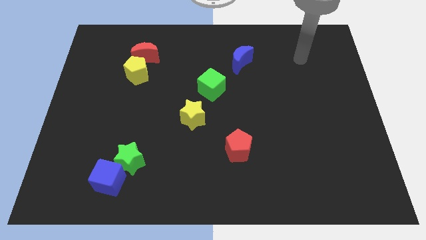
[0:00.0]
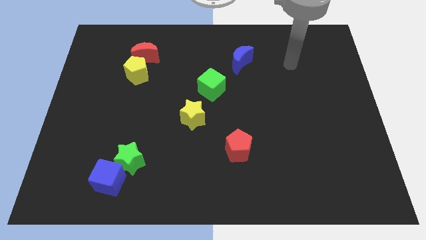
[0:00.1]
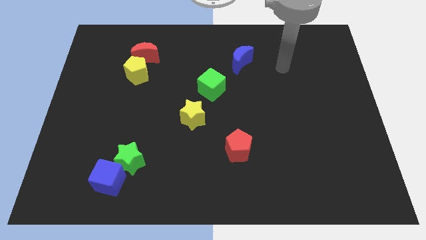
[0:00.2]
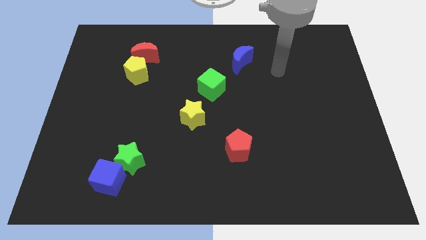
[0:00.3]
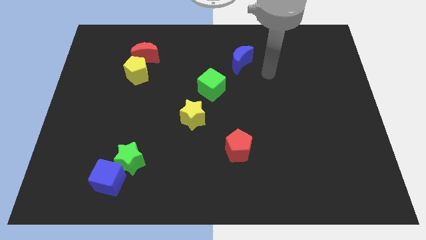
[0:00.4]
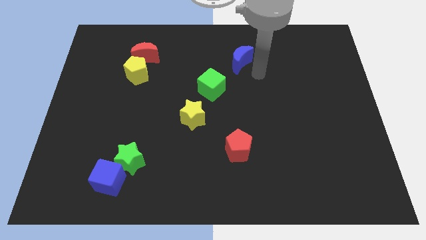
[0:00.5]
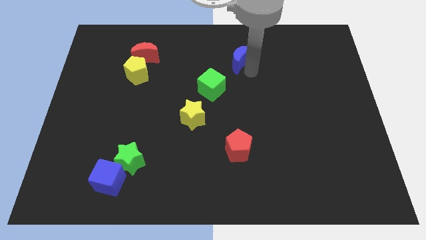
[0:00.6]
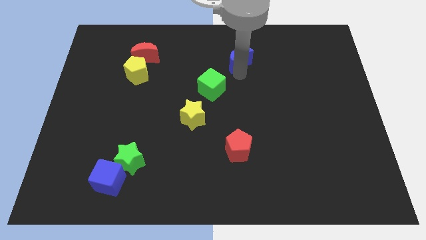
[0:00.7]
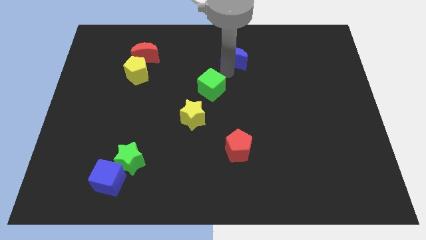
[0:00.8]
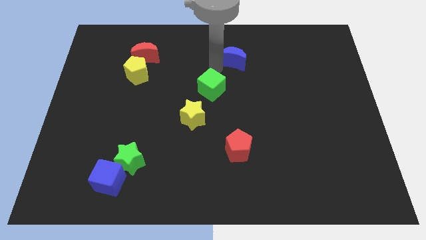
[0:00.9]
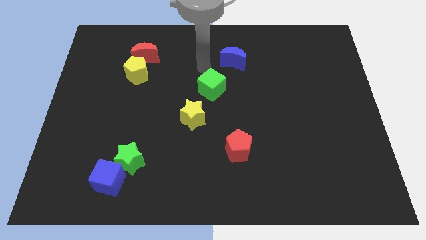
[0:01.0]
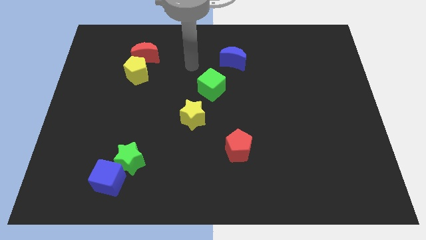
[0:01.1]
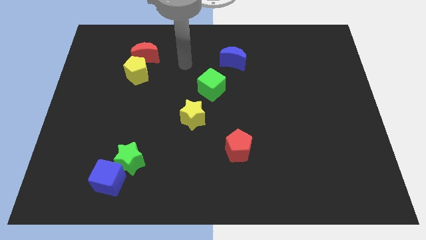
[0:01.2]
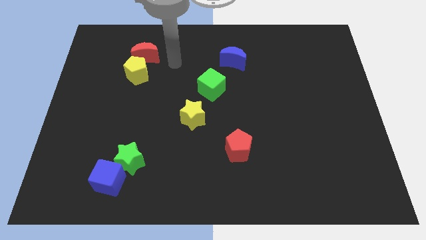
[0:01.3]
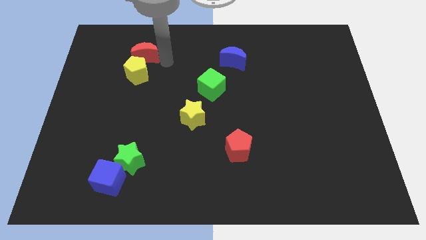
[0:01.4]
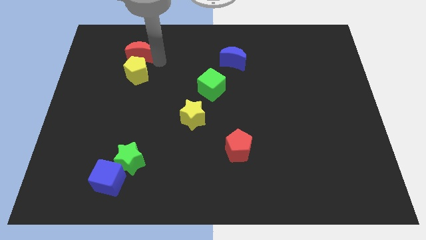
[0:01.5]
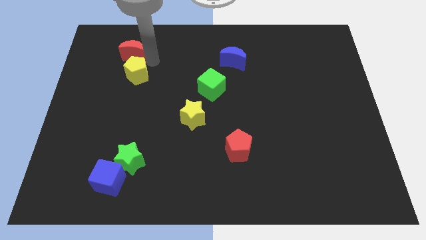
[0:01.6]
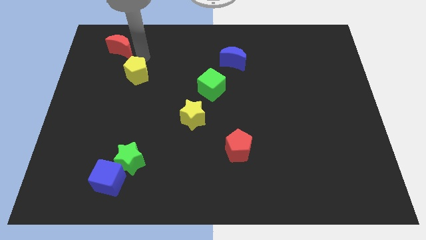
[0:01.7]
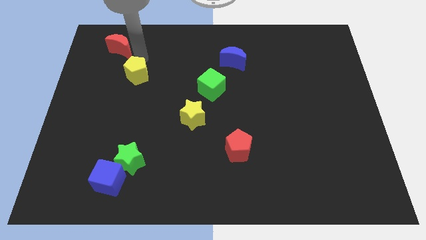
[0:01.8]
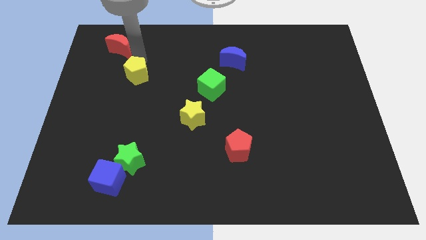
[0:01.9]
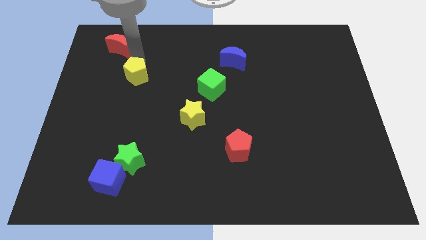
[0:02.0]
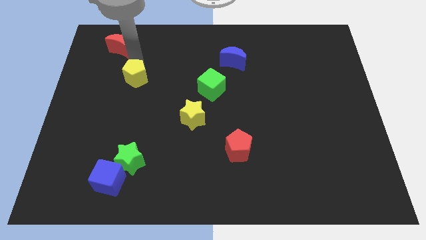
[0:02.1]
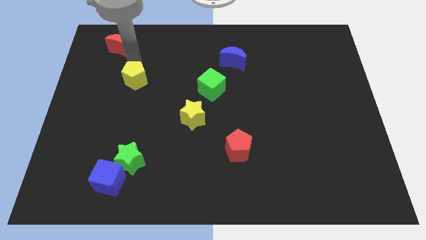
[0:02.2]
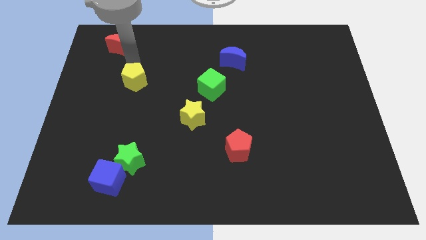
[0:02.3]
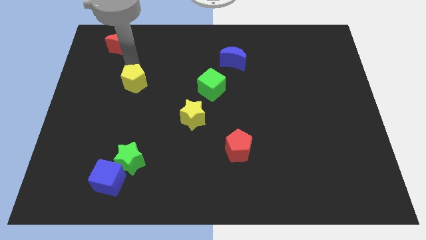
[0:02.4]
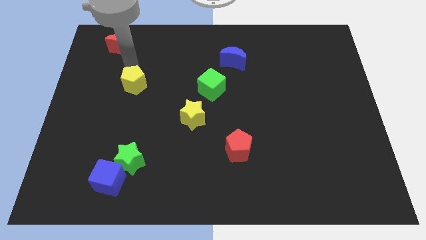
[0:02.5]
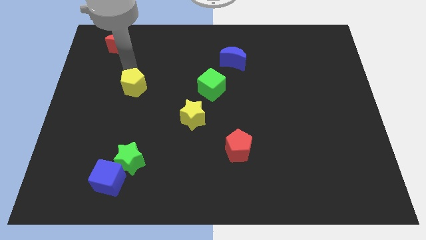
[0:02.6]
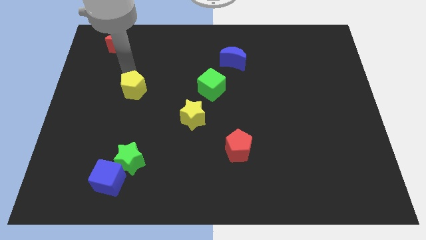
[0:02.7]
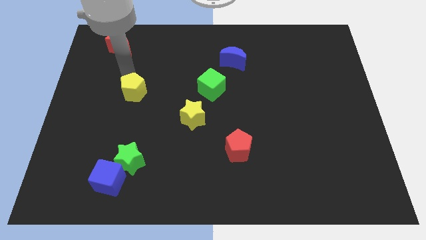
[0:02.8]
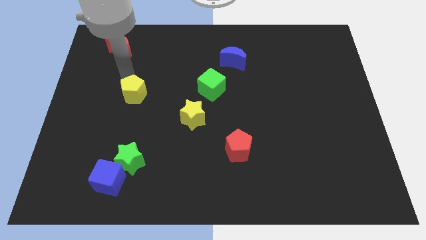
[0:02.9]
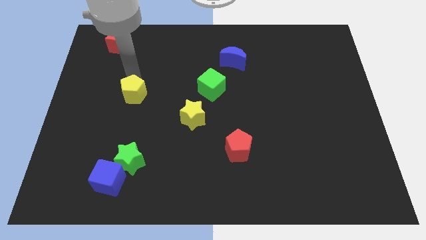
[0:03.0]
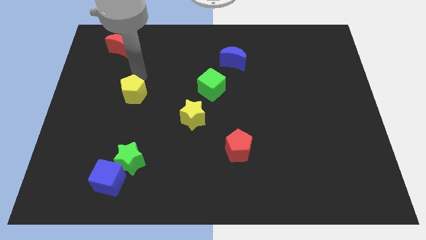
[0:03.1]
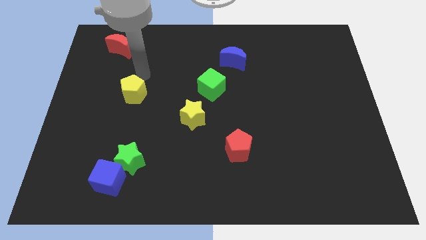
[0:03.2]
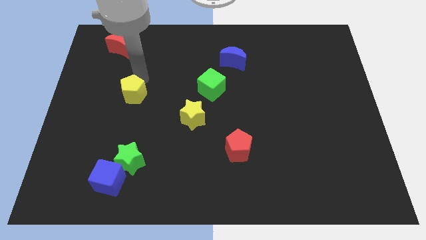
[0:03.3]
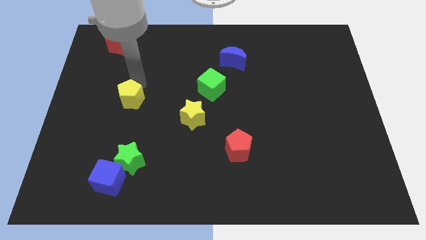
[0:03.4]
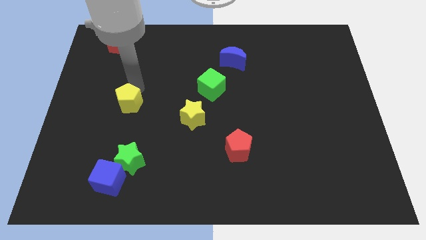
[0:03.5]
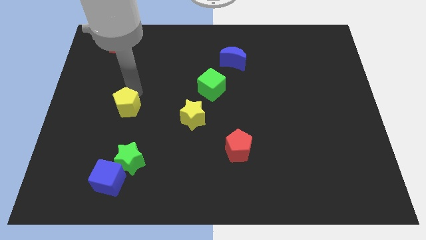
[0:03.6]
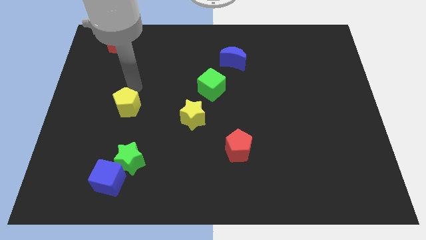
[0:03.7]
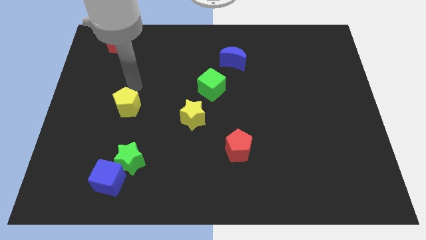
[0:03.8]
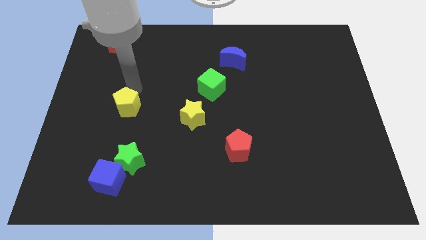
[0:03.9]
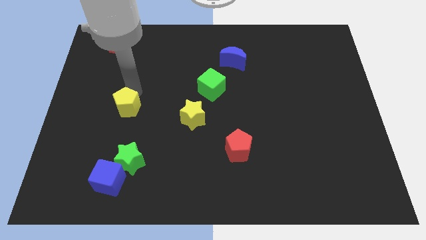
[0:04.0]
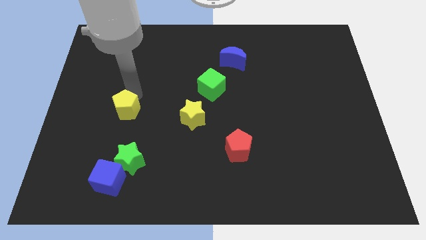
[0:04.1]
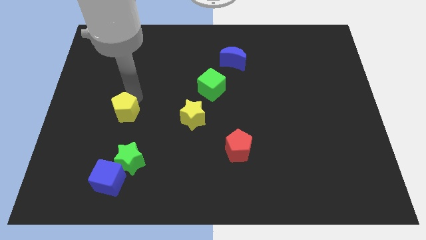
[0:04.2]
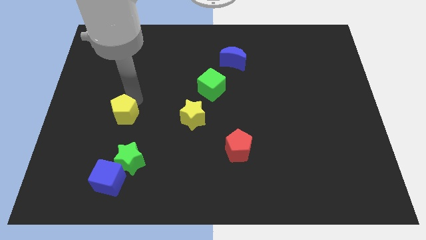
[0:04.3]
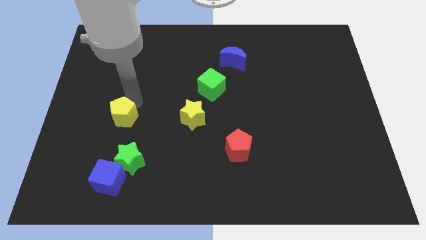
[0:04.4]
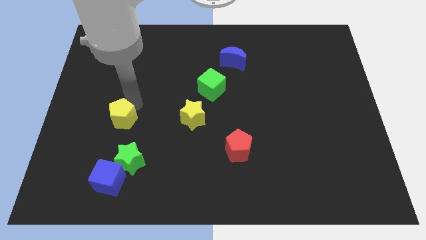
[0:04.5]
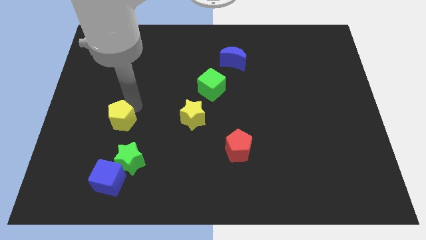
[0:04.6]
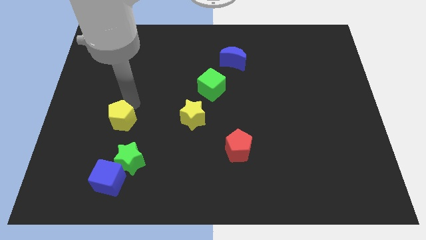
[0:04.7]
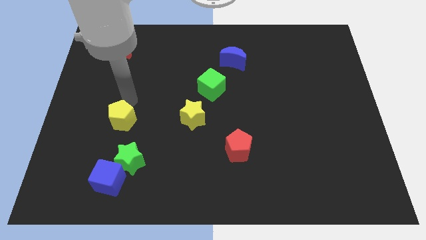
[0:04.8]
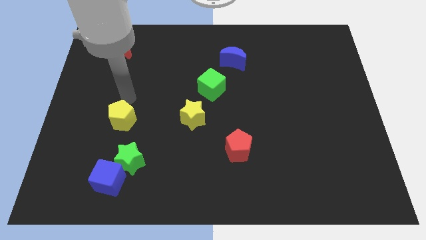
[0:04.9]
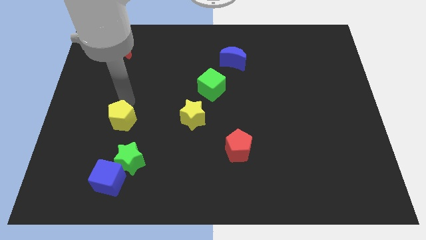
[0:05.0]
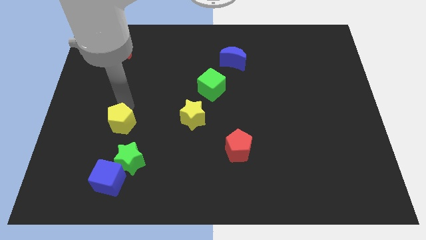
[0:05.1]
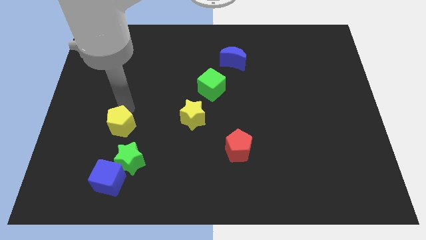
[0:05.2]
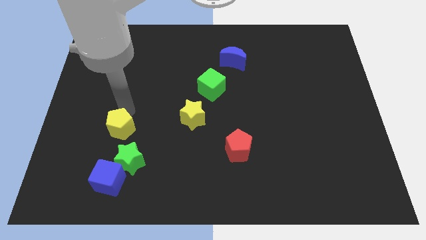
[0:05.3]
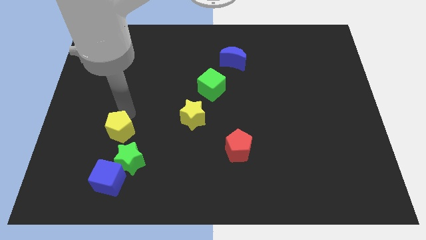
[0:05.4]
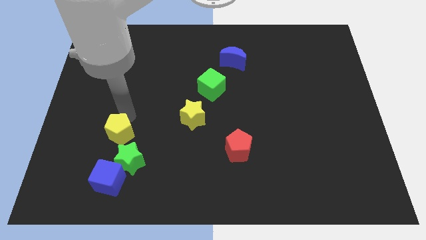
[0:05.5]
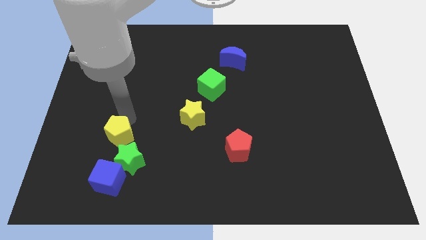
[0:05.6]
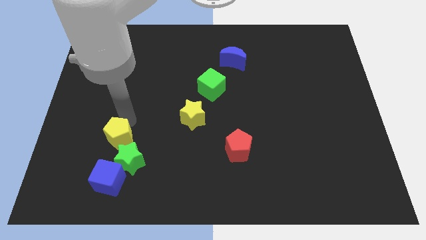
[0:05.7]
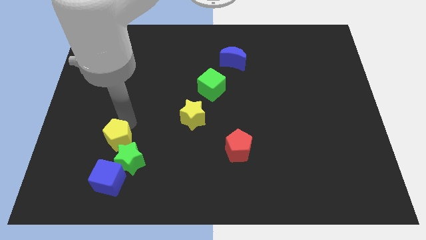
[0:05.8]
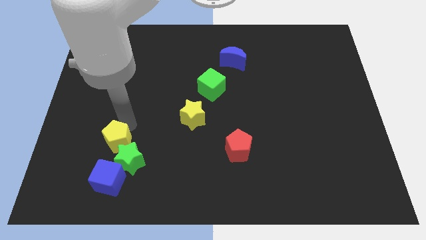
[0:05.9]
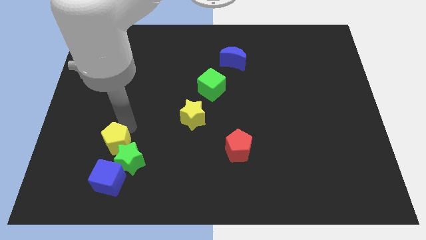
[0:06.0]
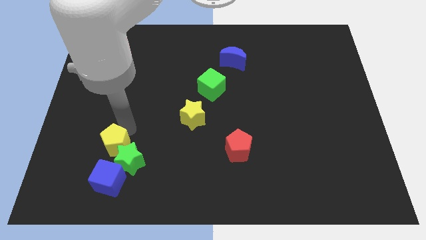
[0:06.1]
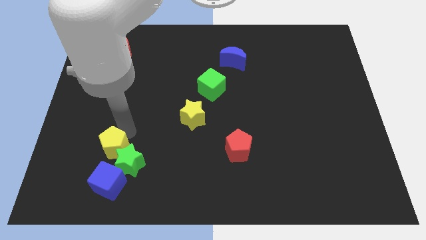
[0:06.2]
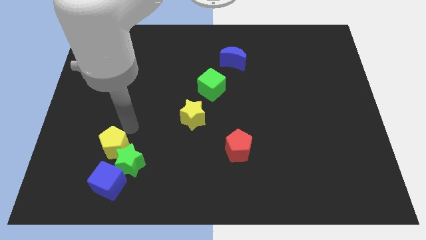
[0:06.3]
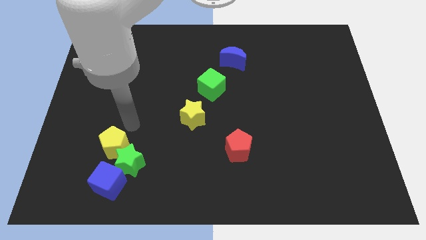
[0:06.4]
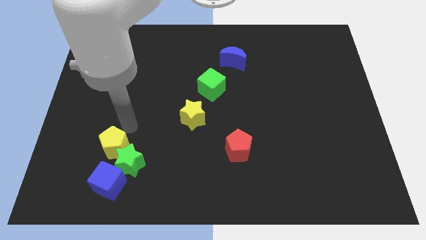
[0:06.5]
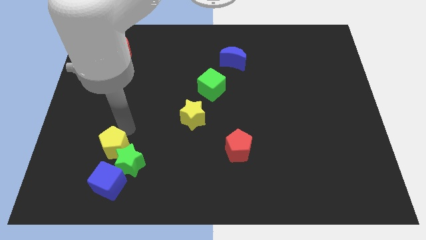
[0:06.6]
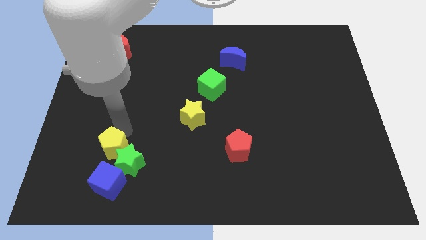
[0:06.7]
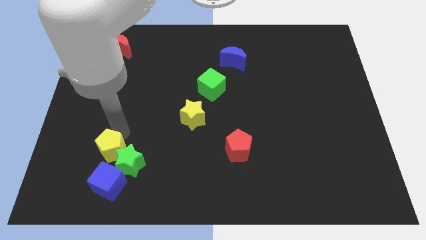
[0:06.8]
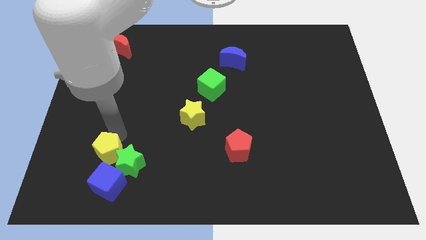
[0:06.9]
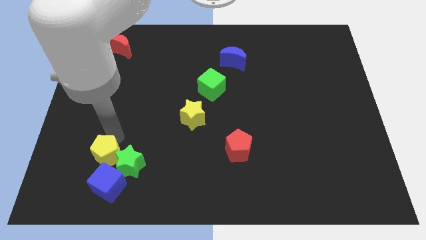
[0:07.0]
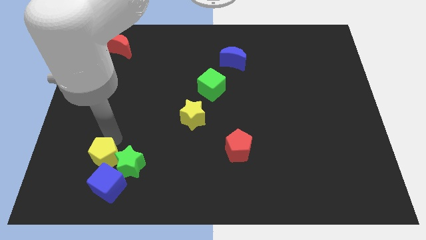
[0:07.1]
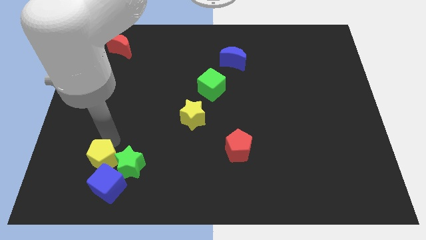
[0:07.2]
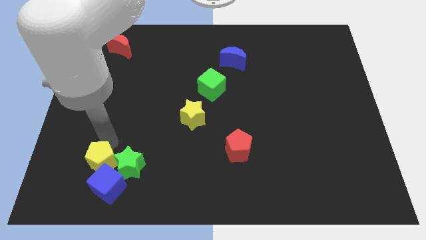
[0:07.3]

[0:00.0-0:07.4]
push the yellow pentagon towards the blue cube

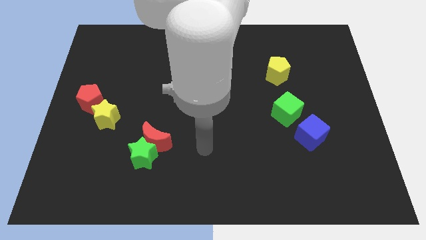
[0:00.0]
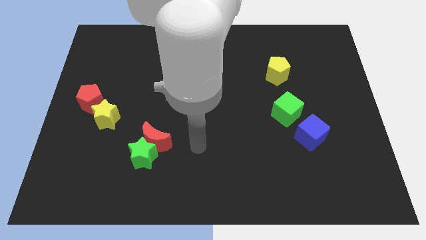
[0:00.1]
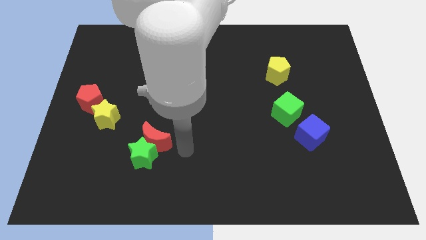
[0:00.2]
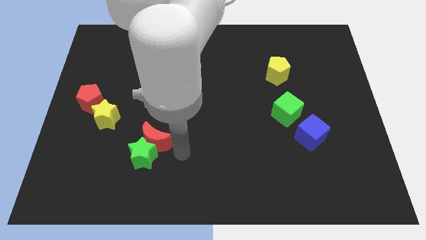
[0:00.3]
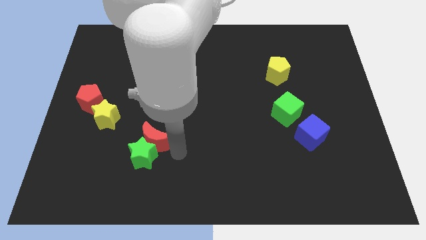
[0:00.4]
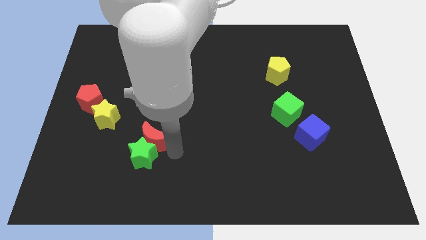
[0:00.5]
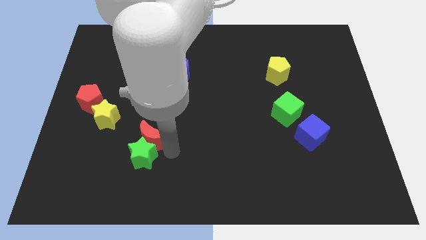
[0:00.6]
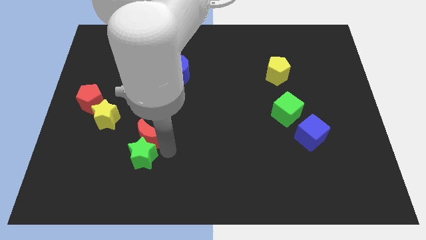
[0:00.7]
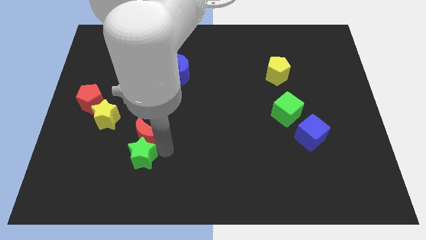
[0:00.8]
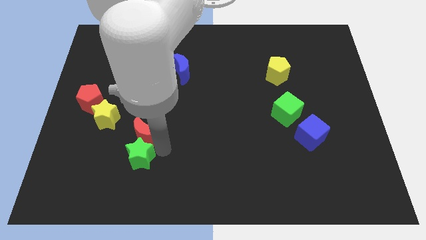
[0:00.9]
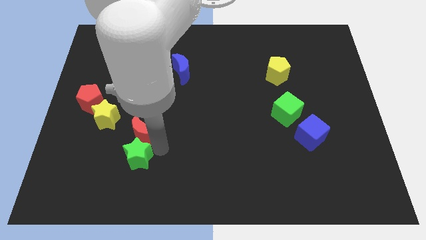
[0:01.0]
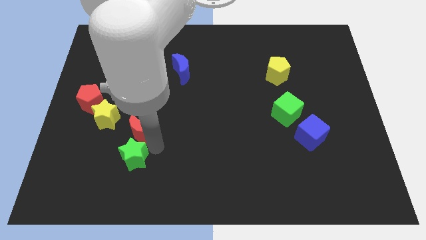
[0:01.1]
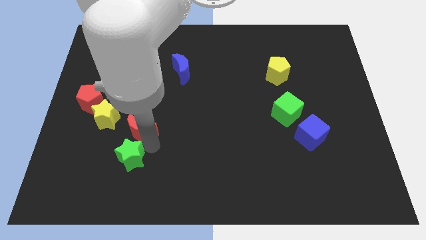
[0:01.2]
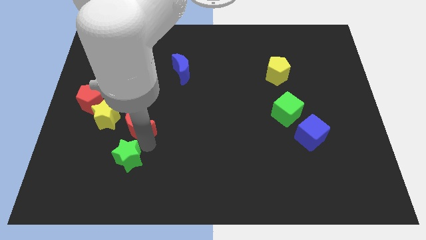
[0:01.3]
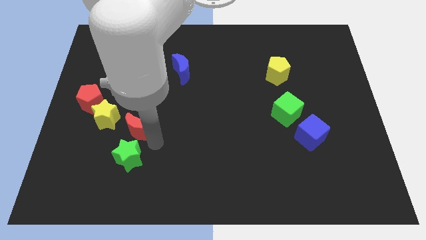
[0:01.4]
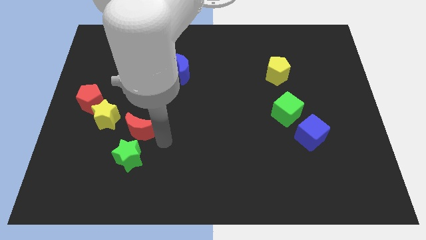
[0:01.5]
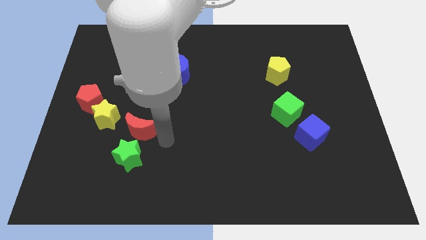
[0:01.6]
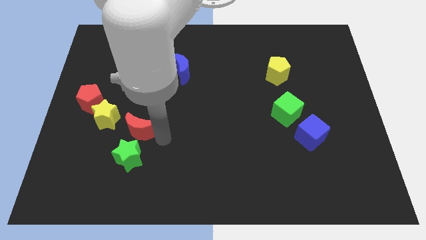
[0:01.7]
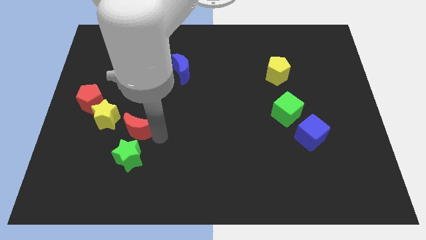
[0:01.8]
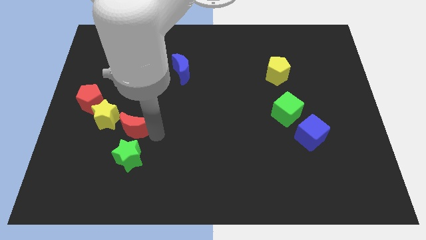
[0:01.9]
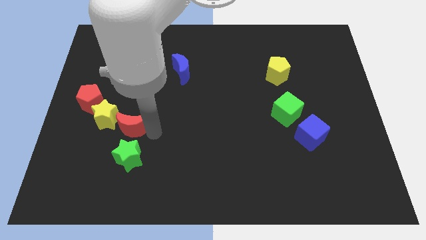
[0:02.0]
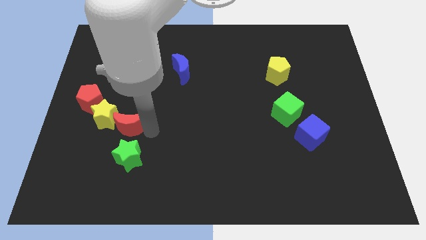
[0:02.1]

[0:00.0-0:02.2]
slide the red moon close to the yellow star
